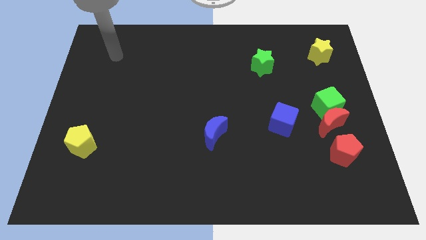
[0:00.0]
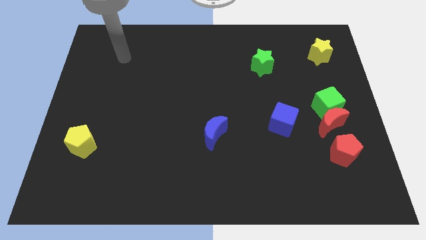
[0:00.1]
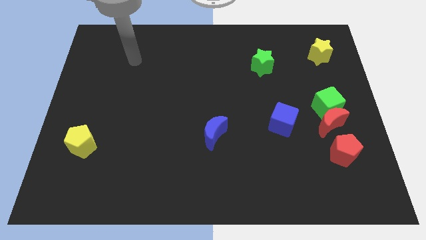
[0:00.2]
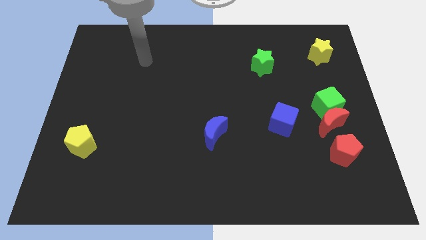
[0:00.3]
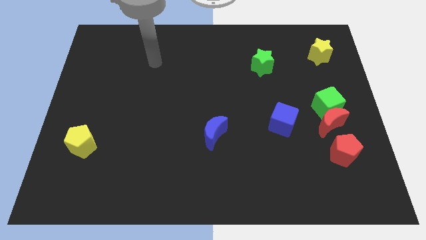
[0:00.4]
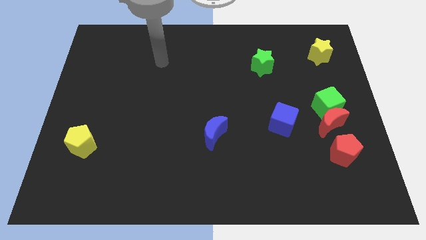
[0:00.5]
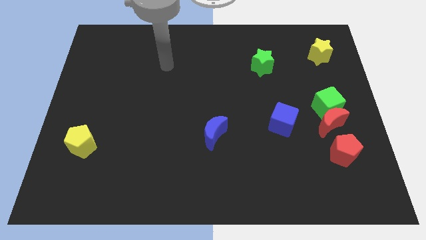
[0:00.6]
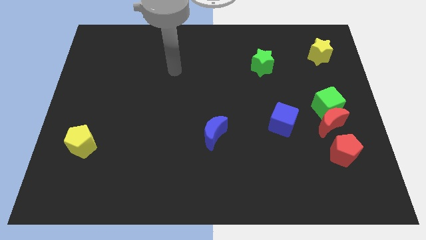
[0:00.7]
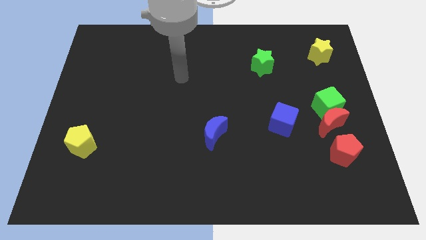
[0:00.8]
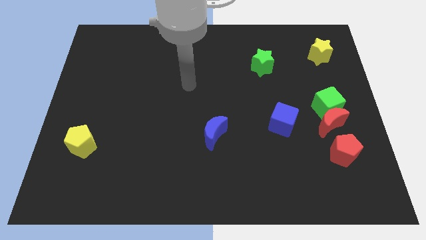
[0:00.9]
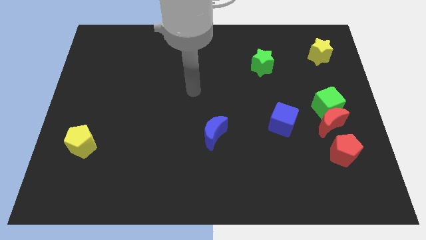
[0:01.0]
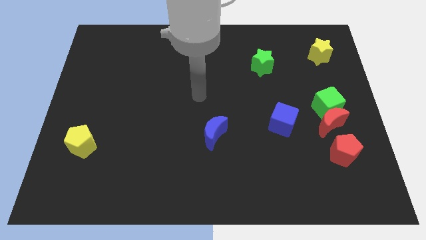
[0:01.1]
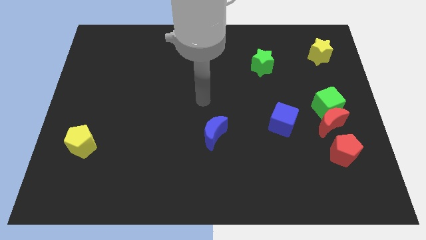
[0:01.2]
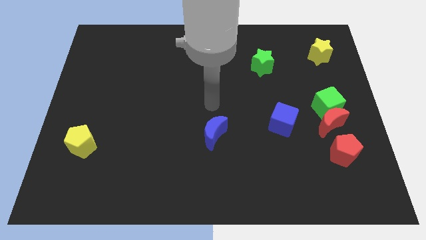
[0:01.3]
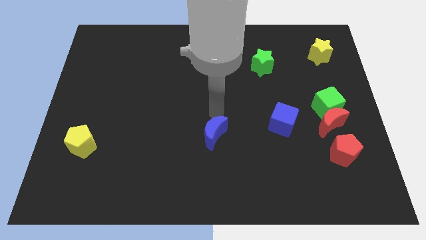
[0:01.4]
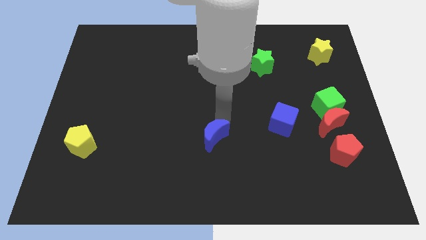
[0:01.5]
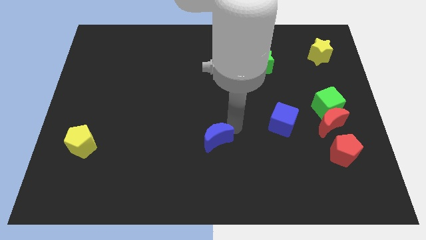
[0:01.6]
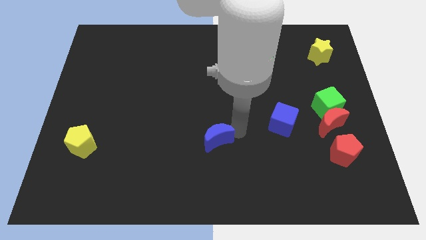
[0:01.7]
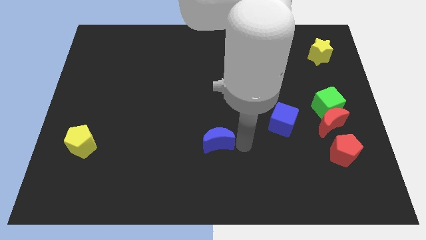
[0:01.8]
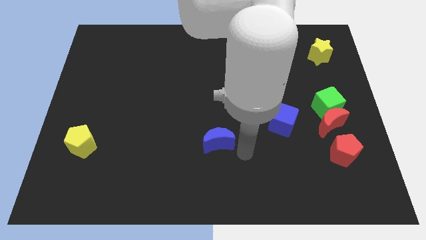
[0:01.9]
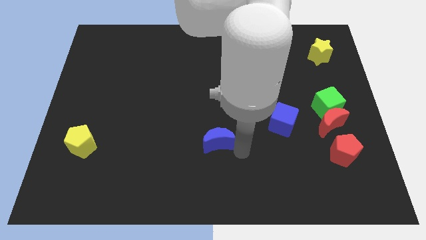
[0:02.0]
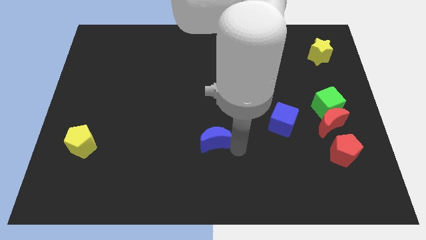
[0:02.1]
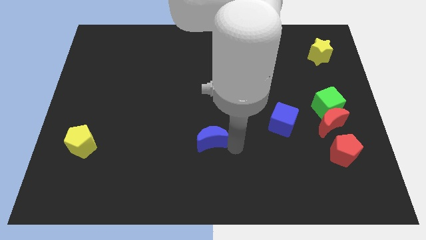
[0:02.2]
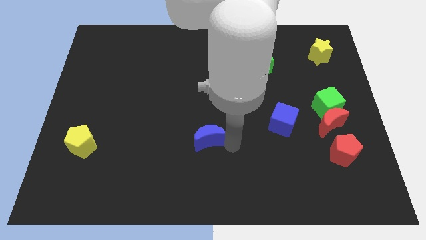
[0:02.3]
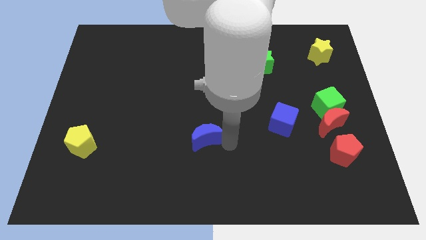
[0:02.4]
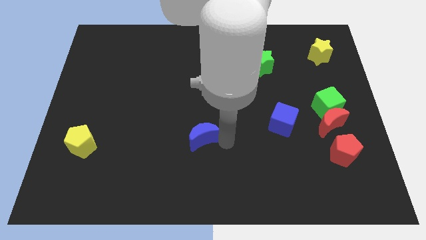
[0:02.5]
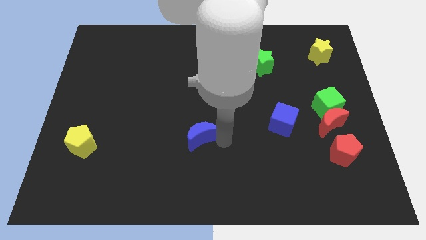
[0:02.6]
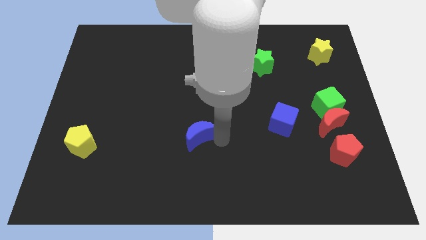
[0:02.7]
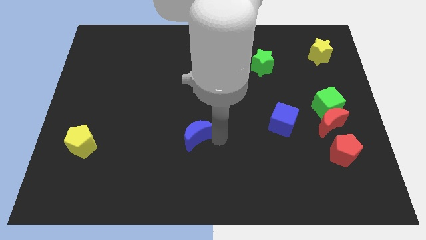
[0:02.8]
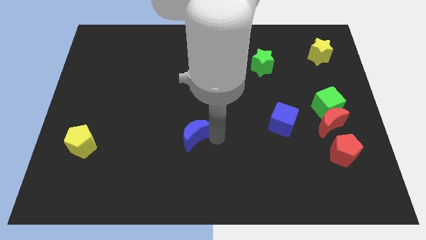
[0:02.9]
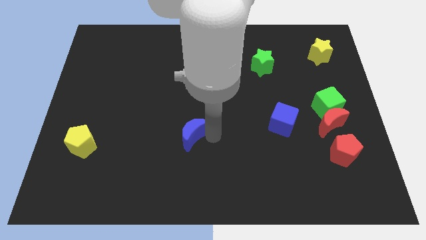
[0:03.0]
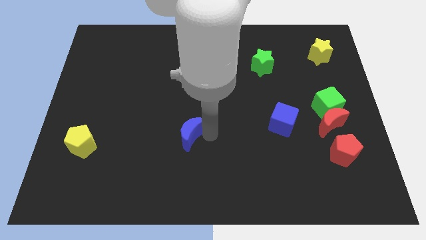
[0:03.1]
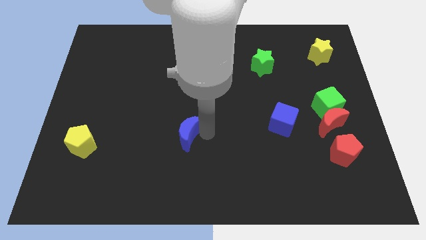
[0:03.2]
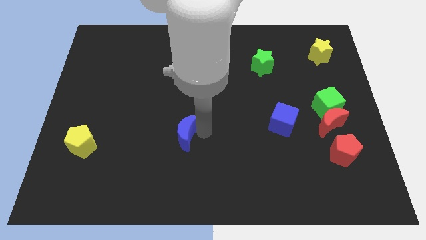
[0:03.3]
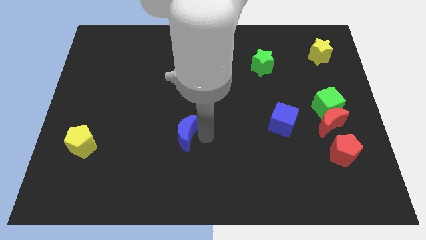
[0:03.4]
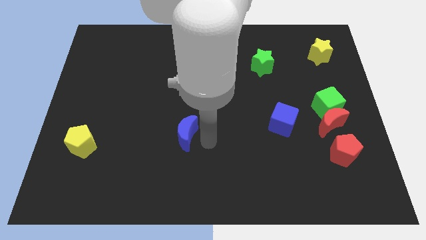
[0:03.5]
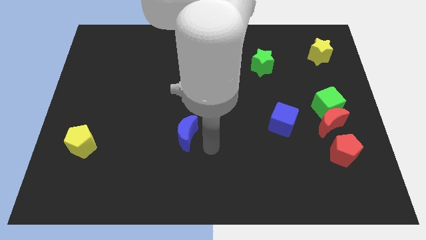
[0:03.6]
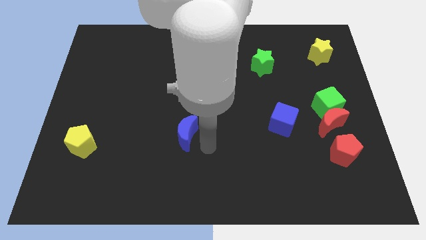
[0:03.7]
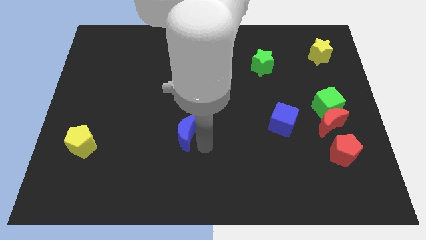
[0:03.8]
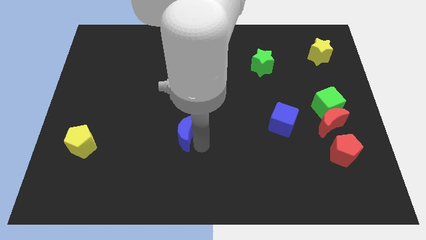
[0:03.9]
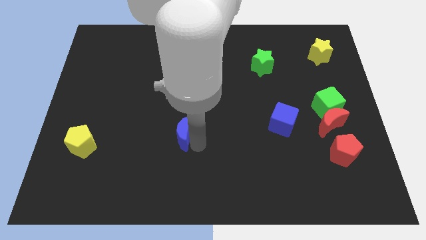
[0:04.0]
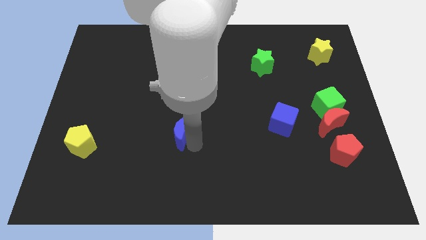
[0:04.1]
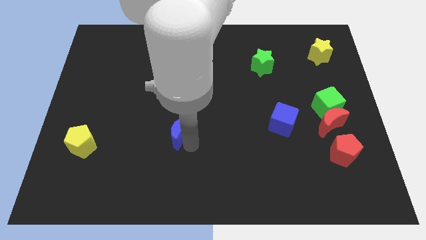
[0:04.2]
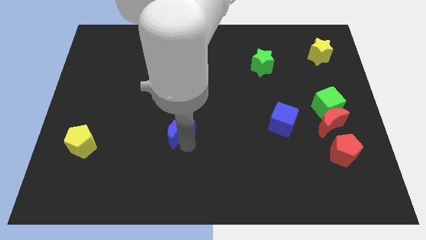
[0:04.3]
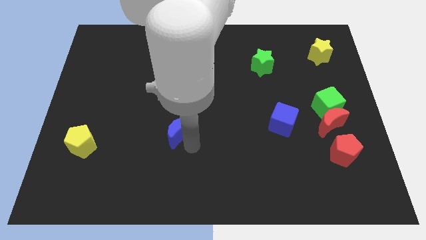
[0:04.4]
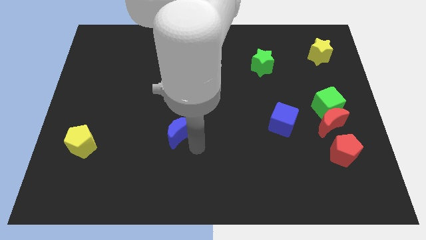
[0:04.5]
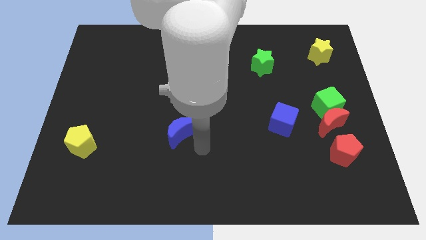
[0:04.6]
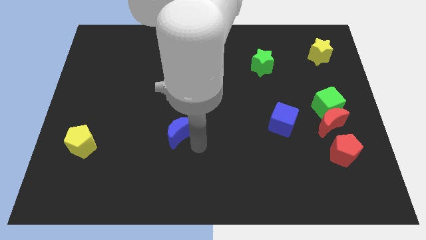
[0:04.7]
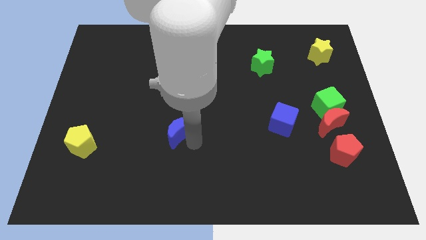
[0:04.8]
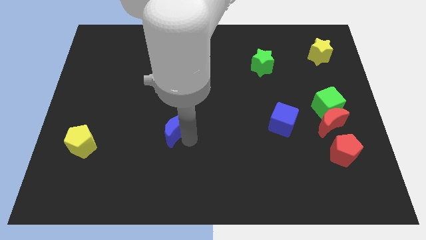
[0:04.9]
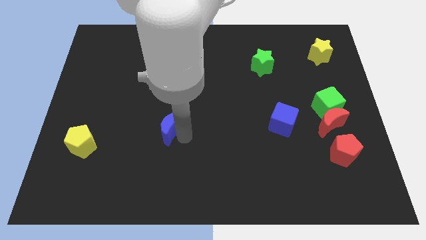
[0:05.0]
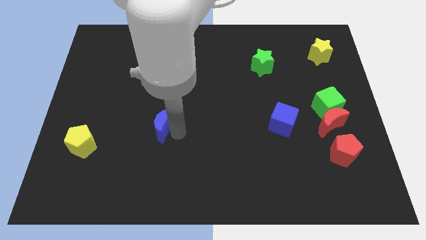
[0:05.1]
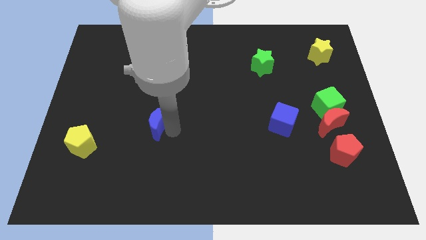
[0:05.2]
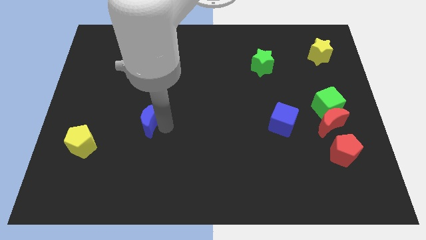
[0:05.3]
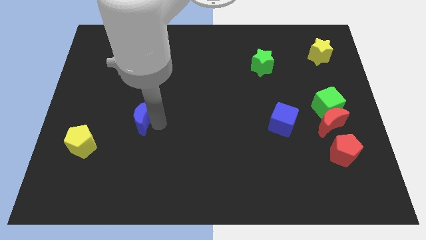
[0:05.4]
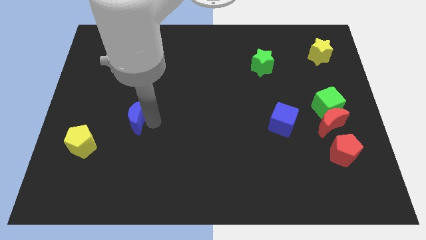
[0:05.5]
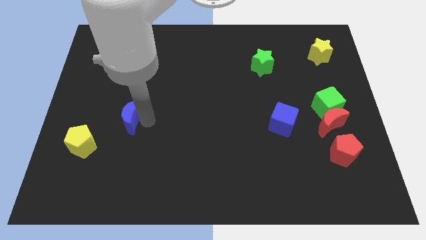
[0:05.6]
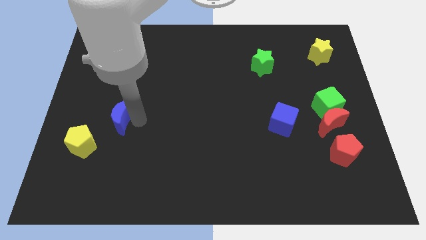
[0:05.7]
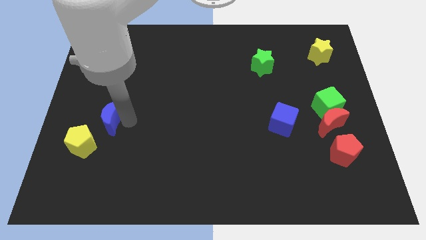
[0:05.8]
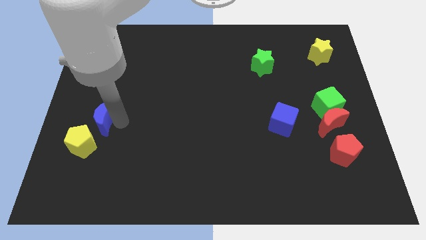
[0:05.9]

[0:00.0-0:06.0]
push the blue moon to the top of the yellow pentagon

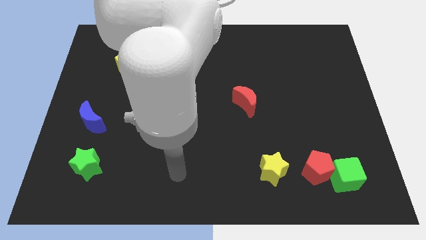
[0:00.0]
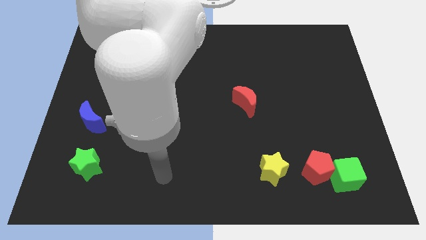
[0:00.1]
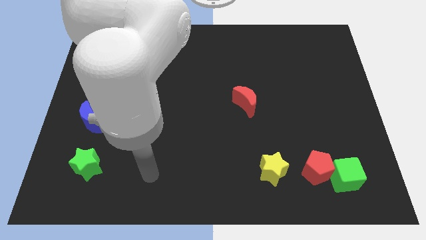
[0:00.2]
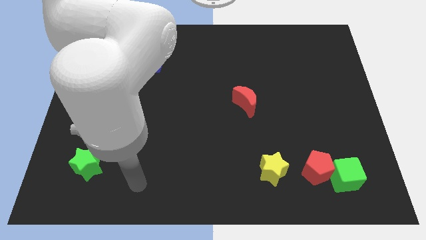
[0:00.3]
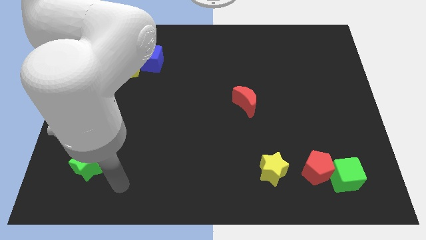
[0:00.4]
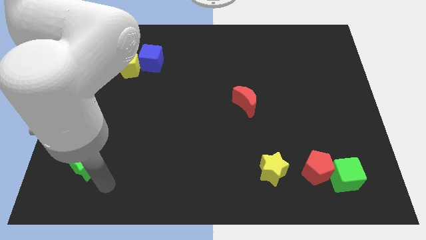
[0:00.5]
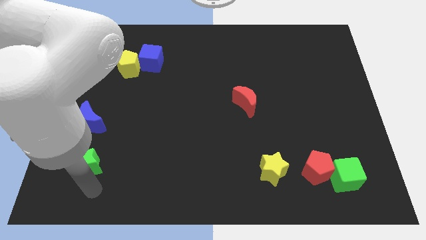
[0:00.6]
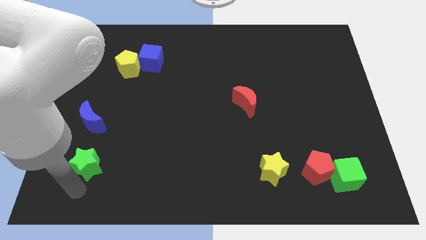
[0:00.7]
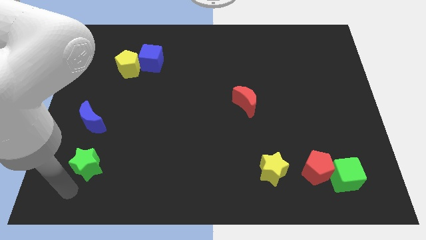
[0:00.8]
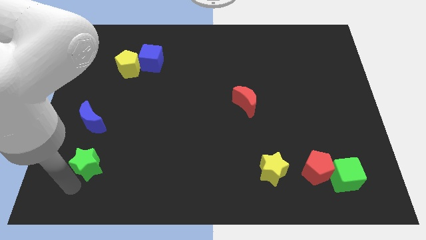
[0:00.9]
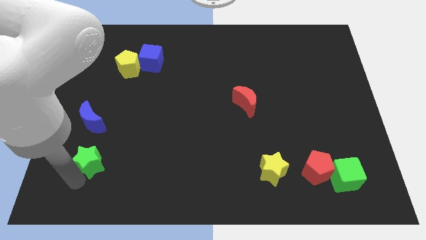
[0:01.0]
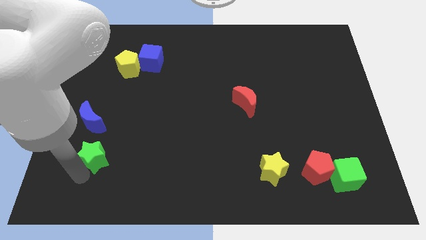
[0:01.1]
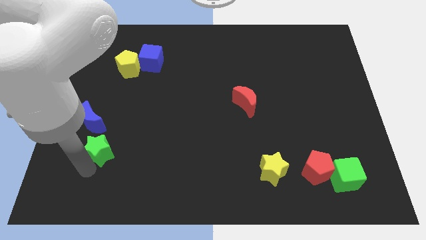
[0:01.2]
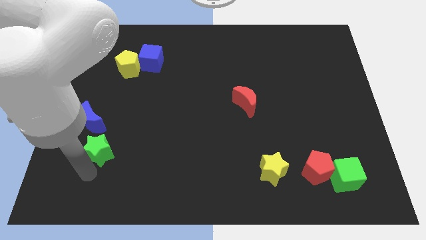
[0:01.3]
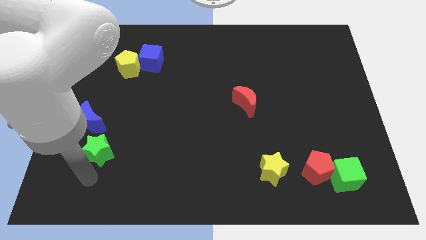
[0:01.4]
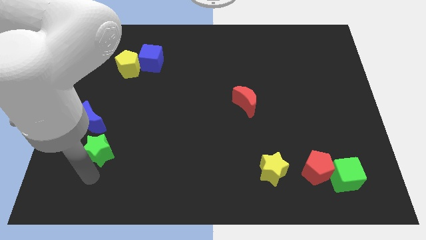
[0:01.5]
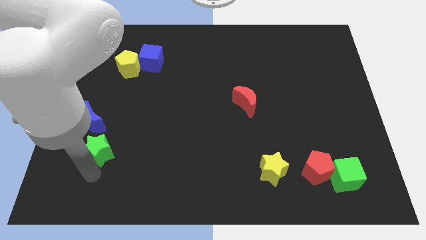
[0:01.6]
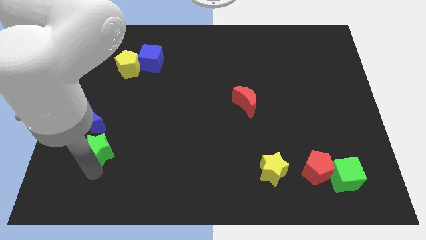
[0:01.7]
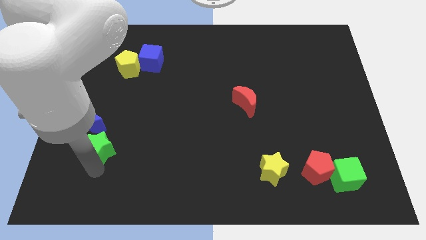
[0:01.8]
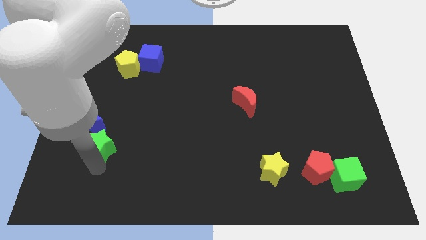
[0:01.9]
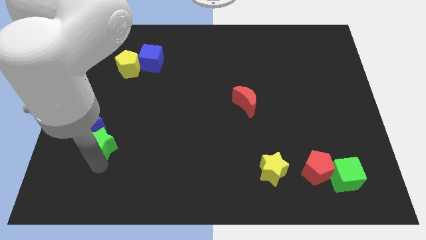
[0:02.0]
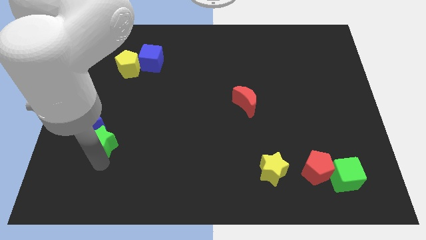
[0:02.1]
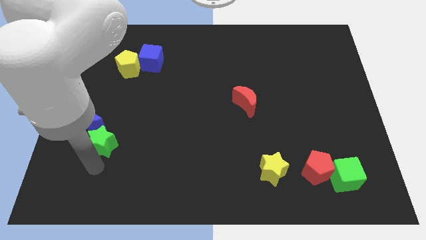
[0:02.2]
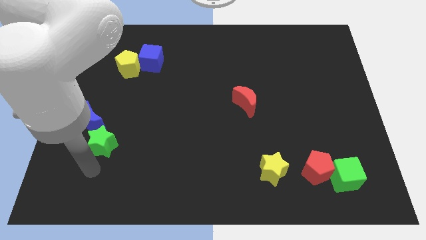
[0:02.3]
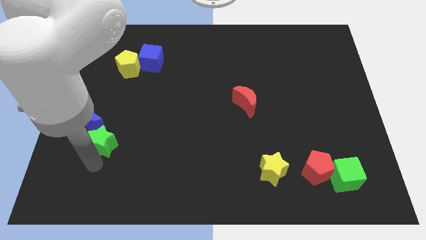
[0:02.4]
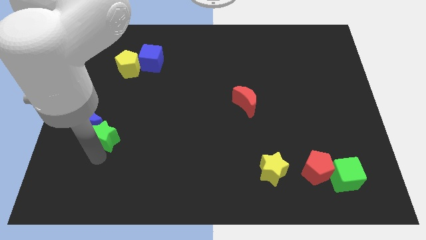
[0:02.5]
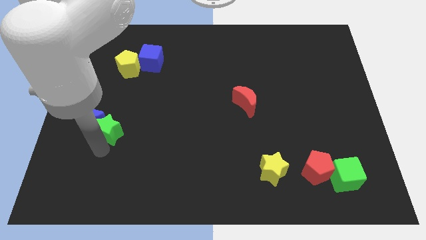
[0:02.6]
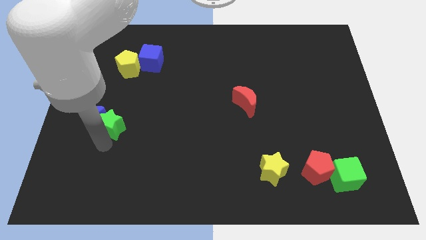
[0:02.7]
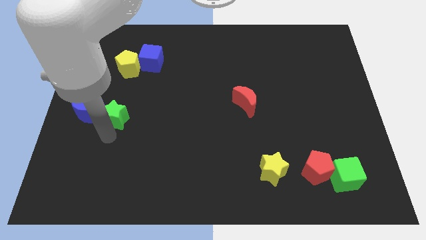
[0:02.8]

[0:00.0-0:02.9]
move the green star to the bottom of the yellow pentagon
